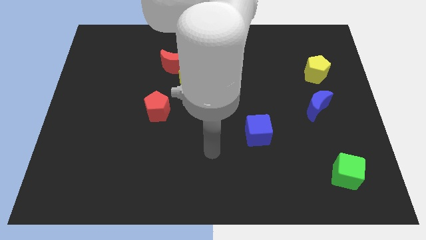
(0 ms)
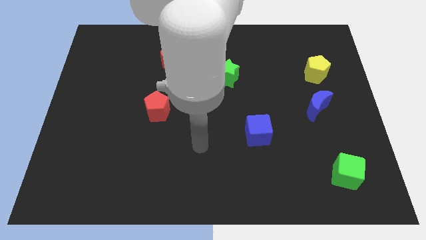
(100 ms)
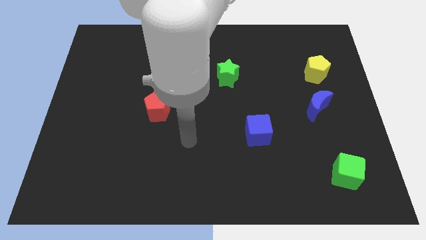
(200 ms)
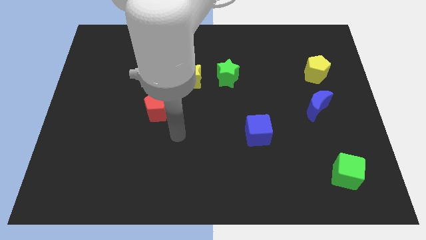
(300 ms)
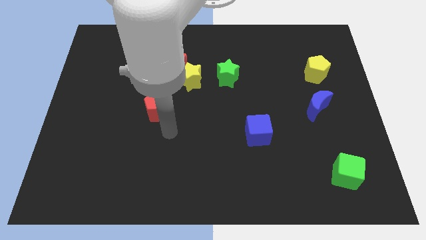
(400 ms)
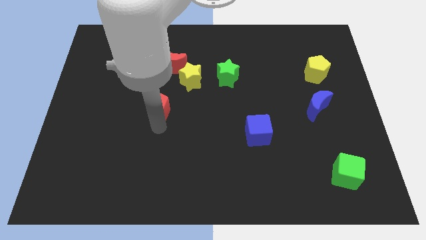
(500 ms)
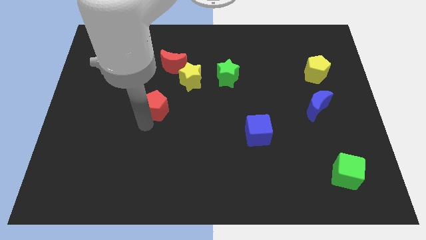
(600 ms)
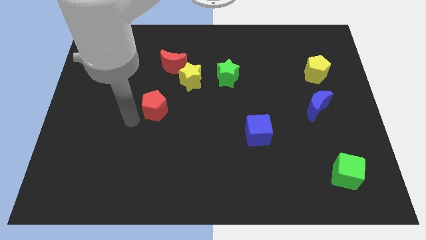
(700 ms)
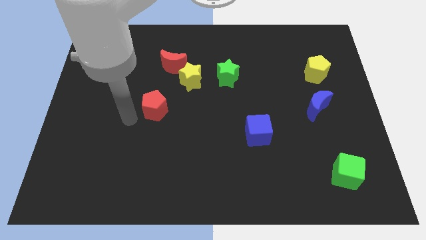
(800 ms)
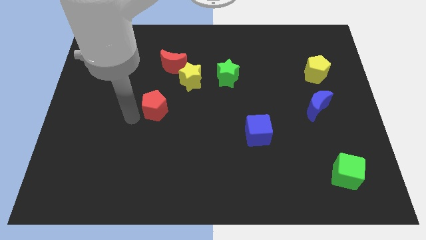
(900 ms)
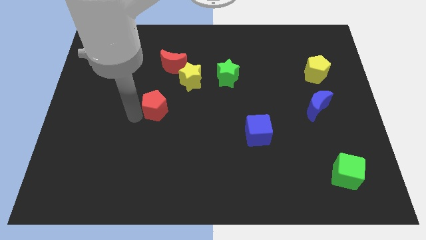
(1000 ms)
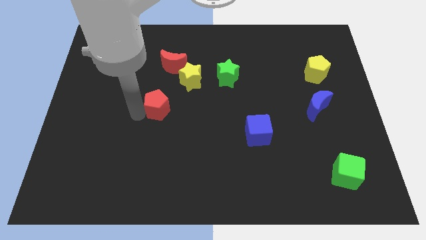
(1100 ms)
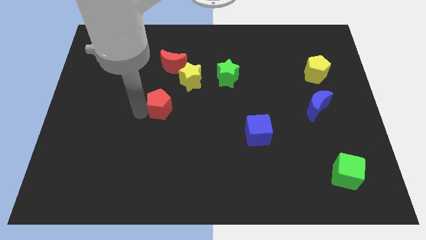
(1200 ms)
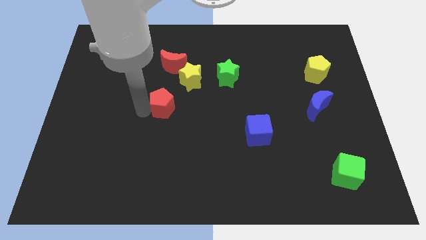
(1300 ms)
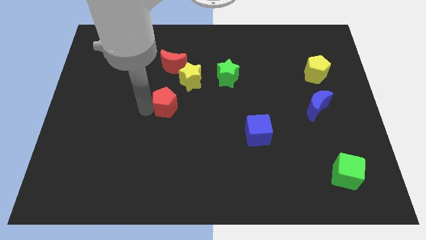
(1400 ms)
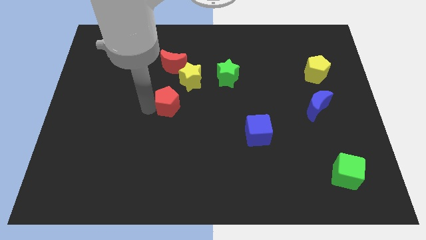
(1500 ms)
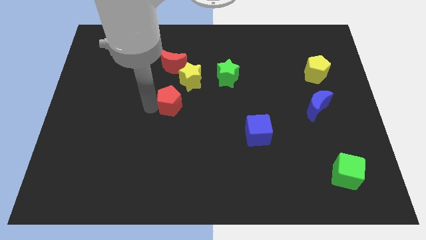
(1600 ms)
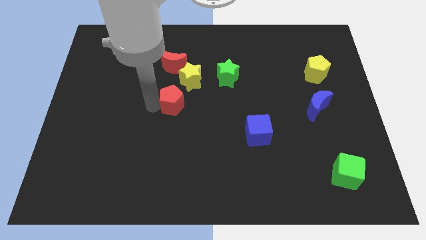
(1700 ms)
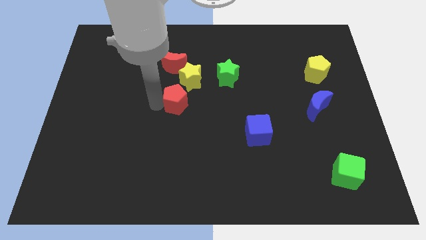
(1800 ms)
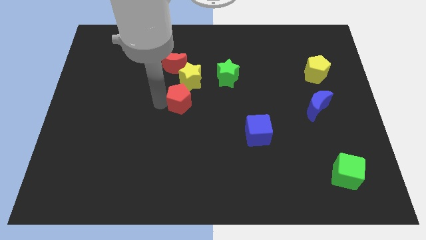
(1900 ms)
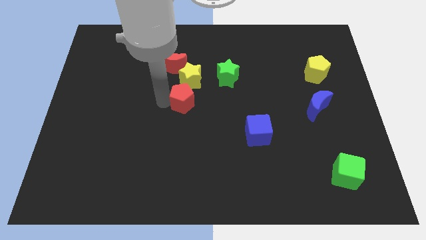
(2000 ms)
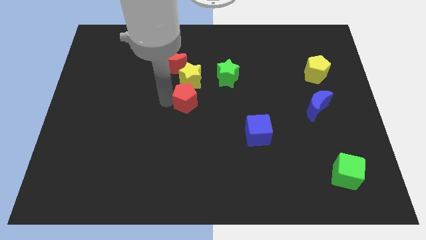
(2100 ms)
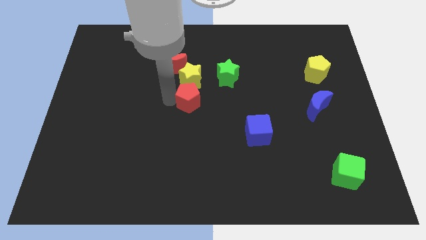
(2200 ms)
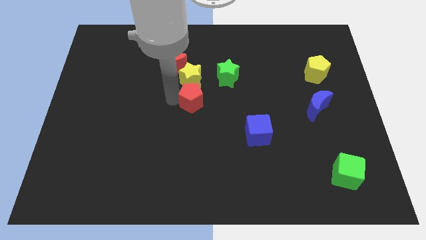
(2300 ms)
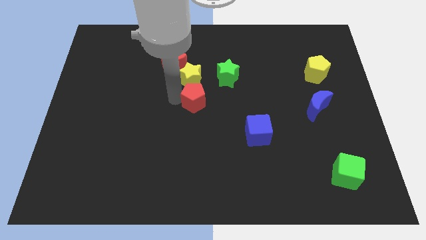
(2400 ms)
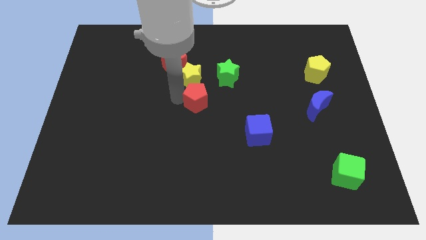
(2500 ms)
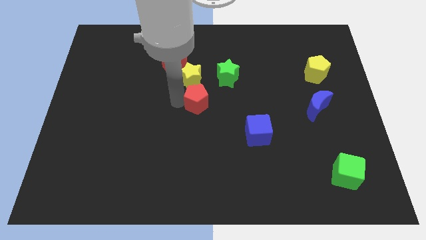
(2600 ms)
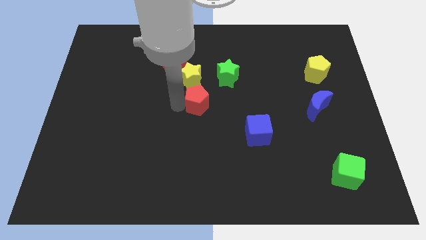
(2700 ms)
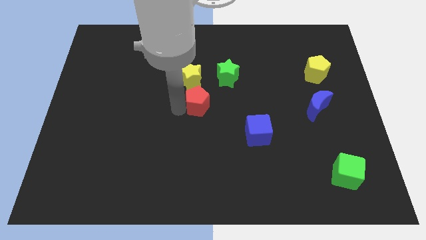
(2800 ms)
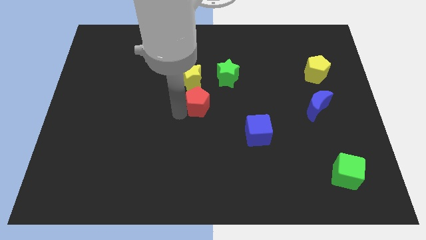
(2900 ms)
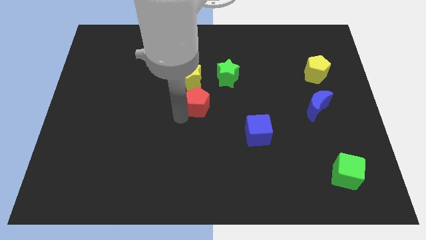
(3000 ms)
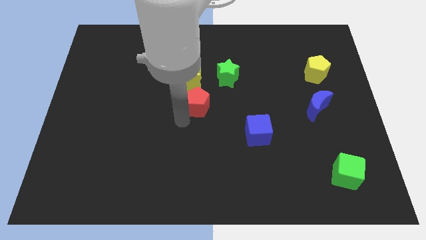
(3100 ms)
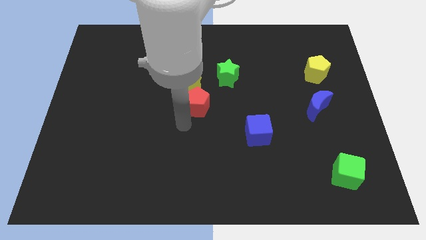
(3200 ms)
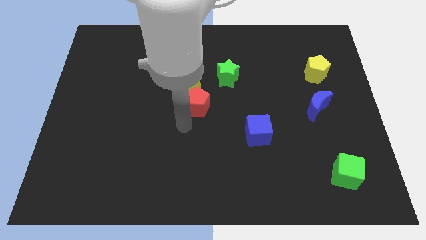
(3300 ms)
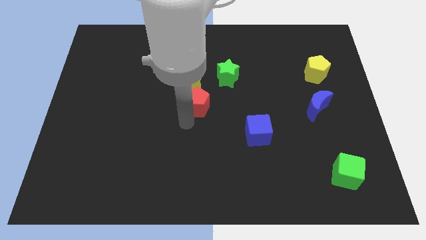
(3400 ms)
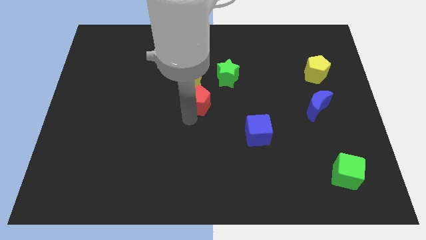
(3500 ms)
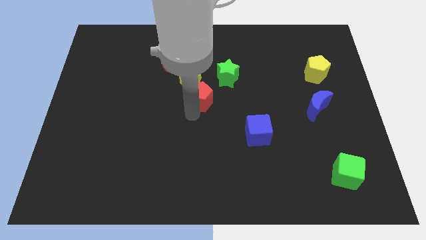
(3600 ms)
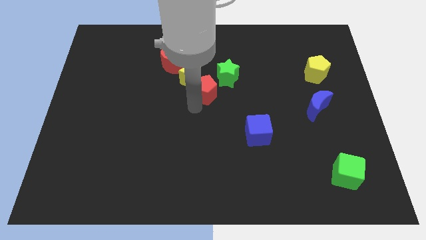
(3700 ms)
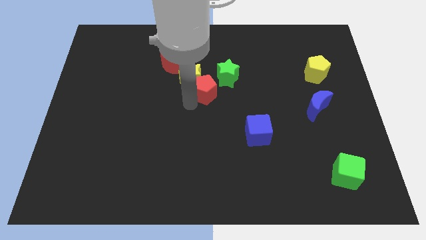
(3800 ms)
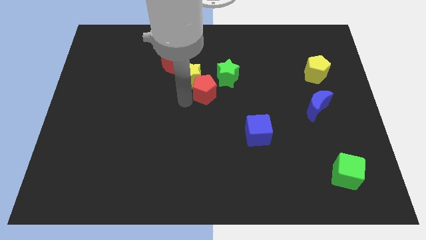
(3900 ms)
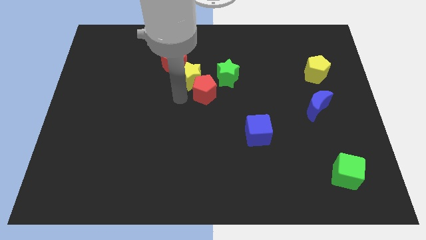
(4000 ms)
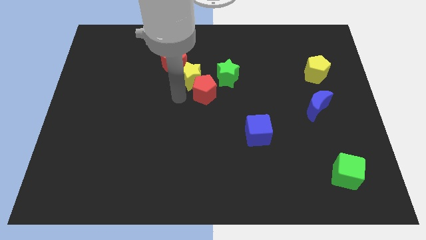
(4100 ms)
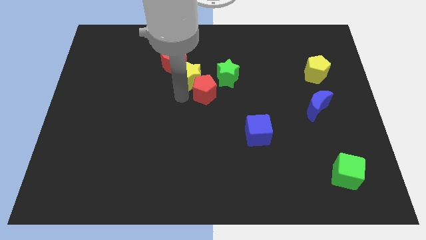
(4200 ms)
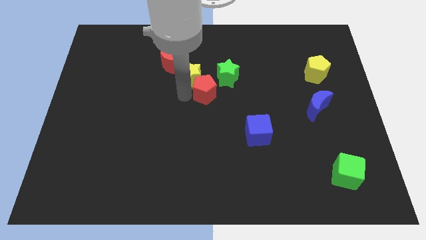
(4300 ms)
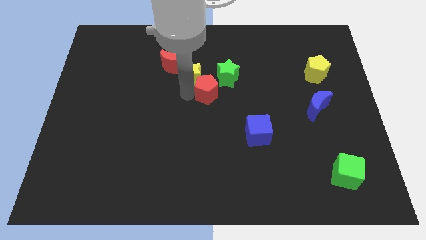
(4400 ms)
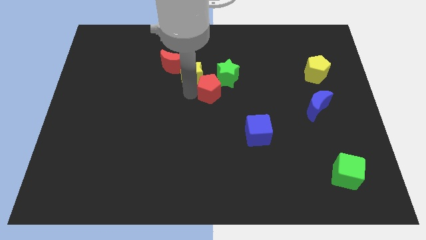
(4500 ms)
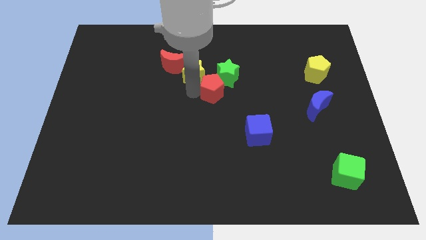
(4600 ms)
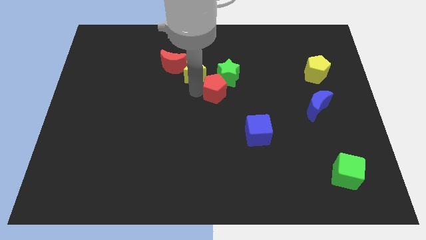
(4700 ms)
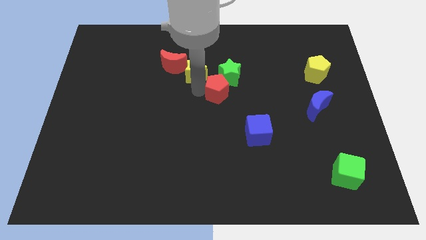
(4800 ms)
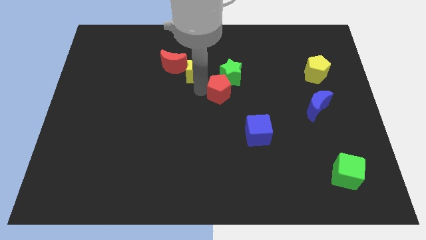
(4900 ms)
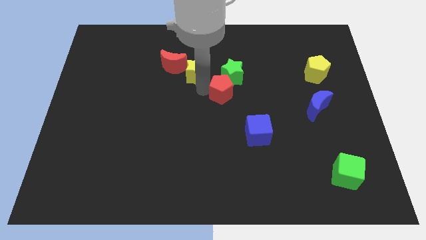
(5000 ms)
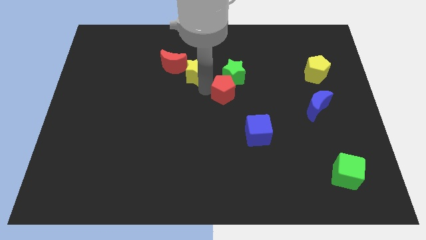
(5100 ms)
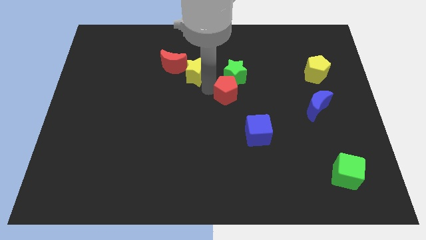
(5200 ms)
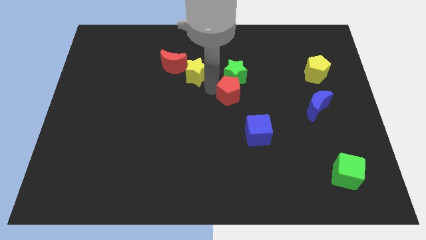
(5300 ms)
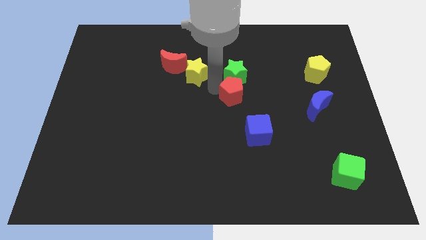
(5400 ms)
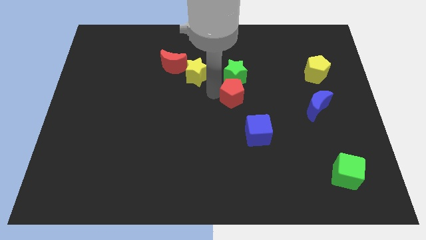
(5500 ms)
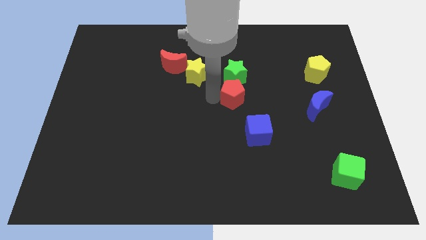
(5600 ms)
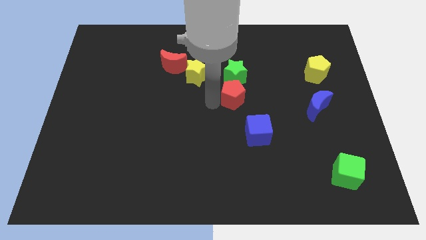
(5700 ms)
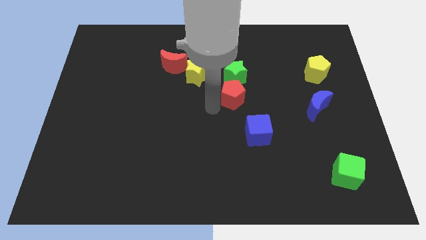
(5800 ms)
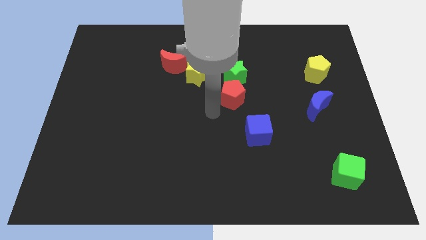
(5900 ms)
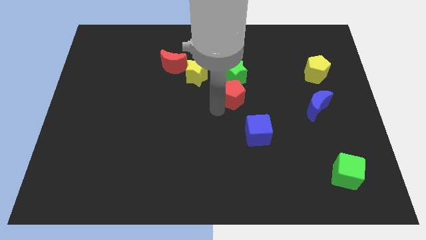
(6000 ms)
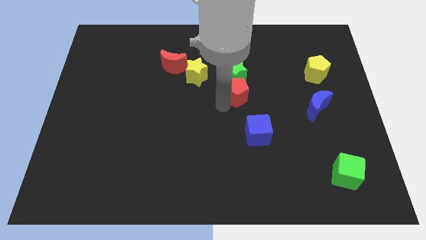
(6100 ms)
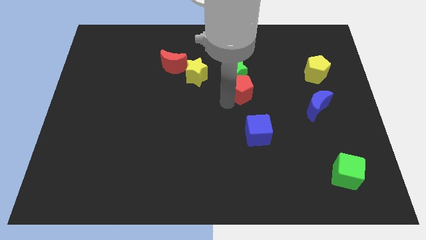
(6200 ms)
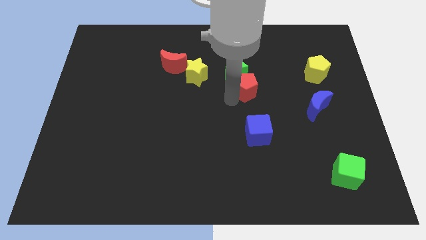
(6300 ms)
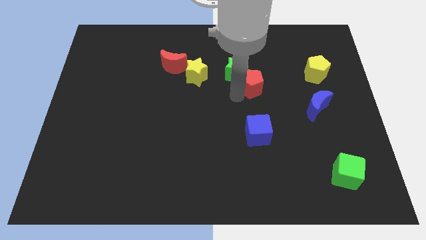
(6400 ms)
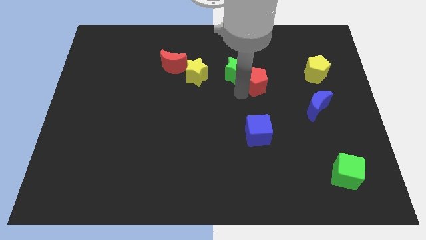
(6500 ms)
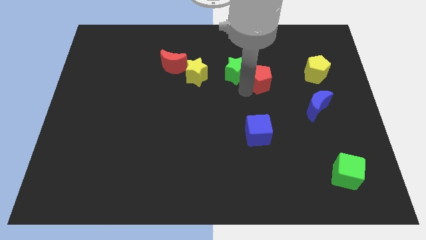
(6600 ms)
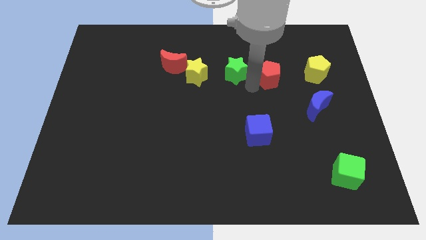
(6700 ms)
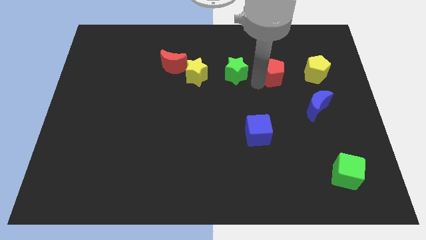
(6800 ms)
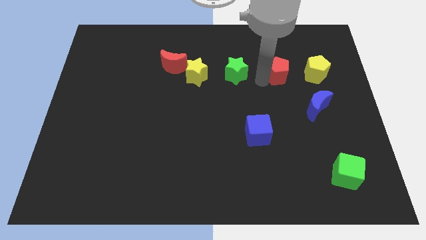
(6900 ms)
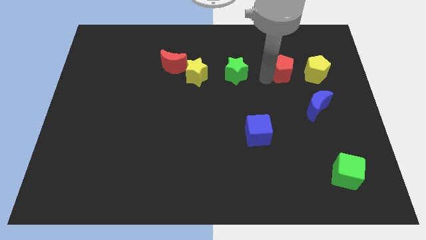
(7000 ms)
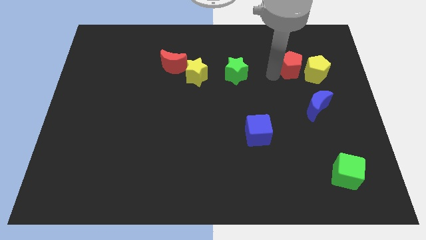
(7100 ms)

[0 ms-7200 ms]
slide the red pentagon towards the yellow pentagon
